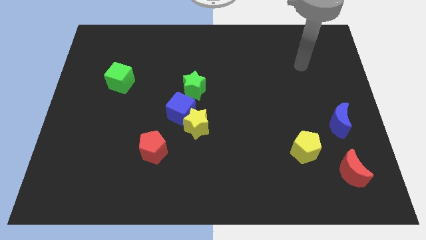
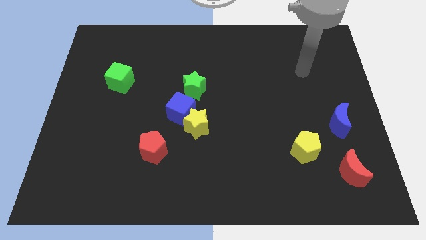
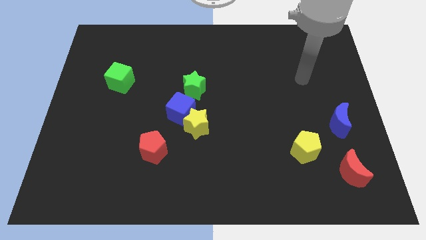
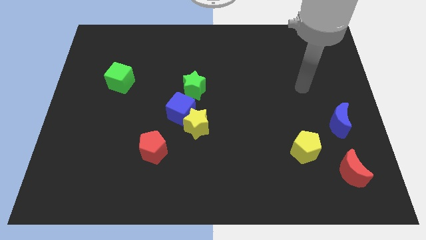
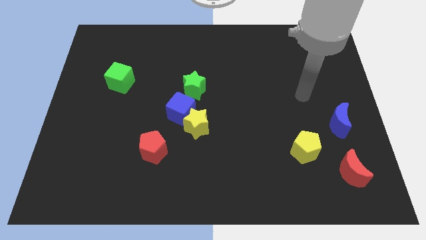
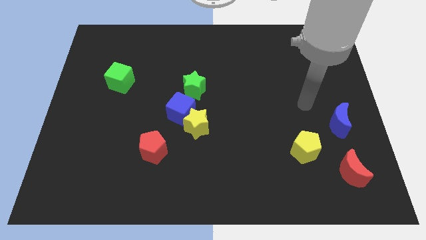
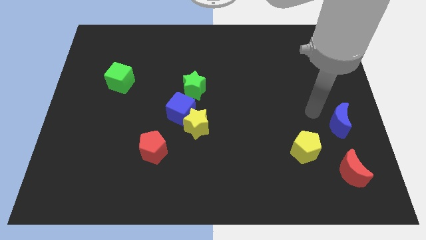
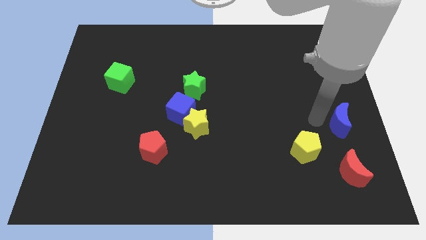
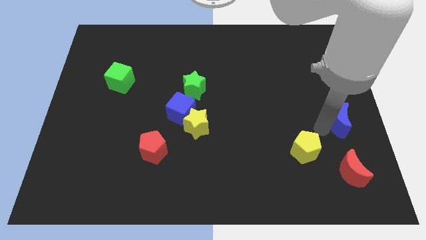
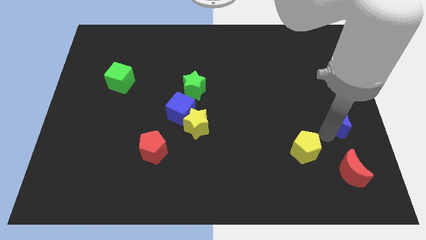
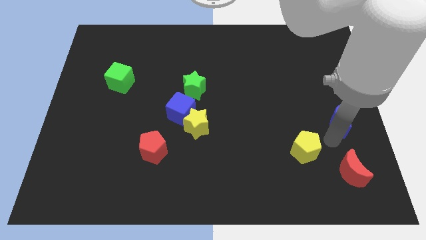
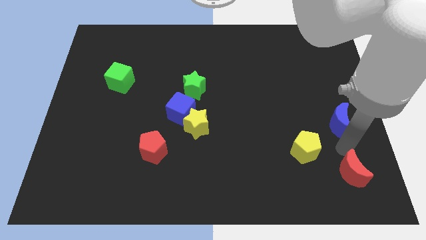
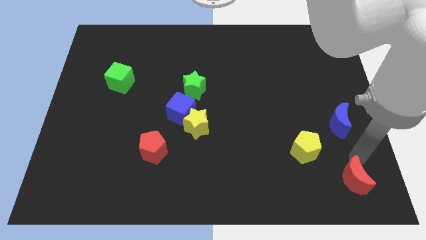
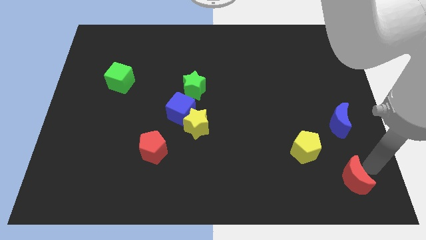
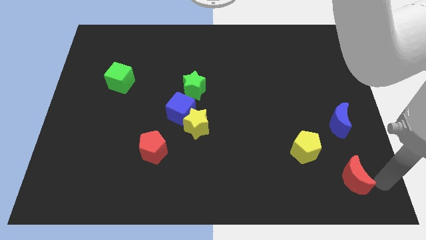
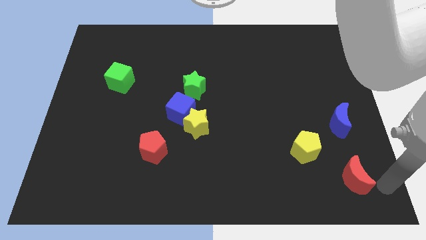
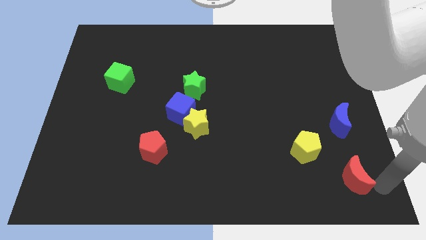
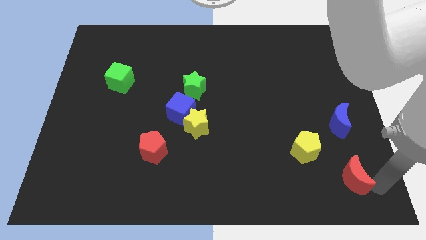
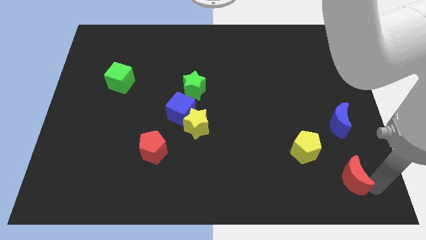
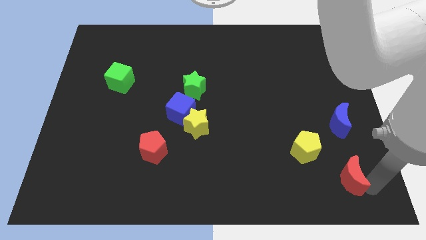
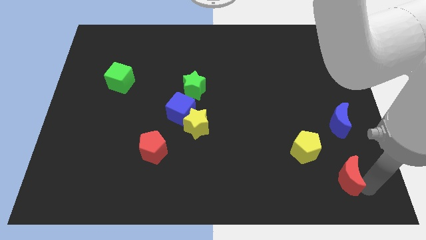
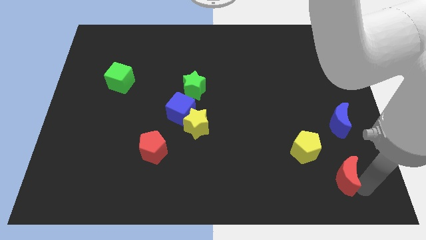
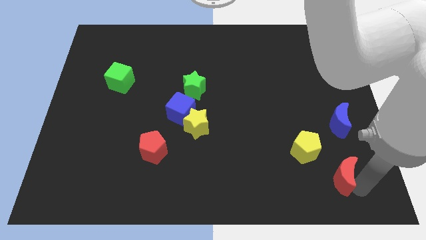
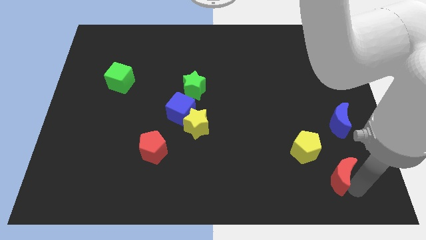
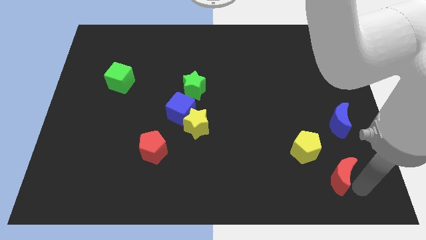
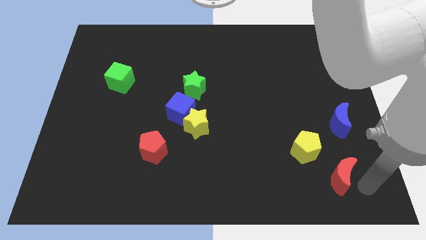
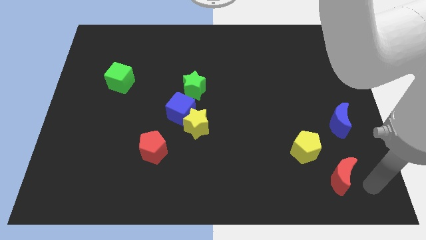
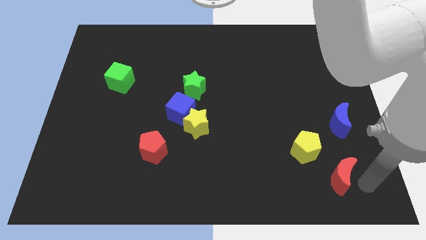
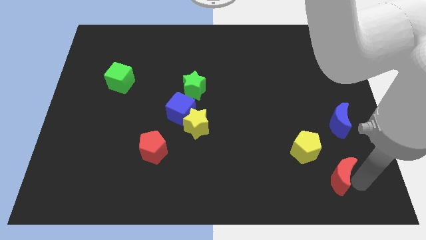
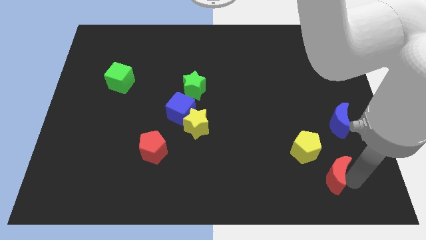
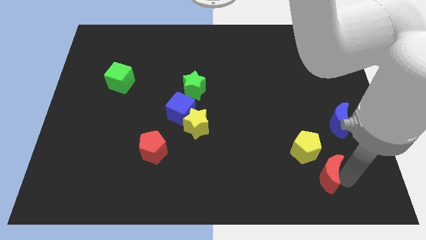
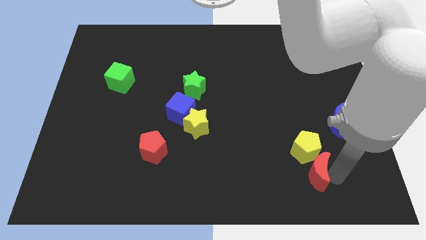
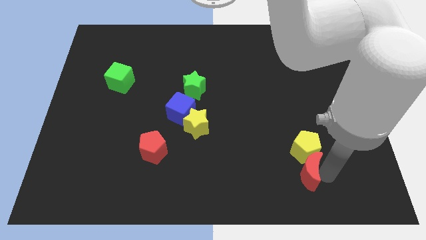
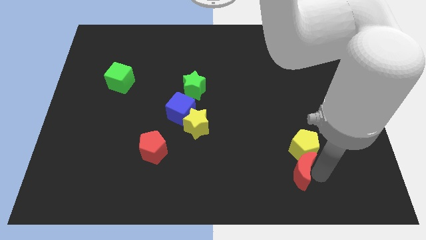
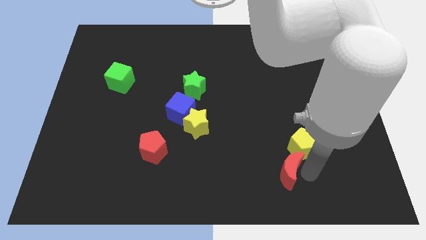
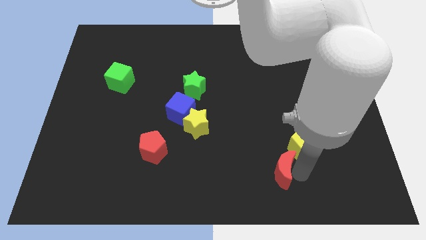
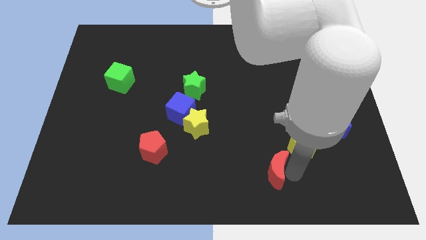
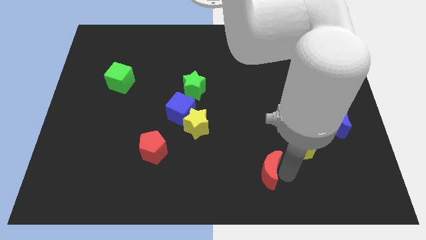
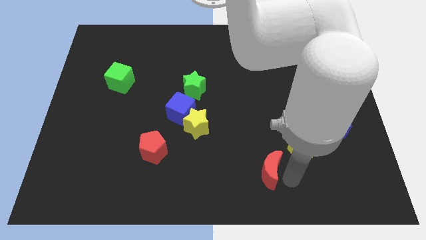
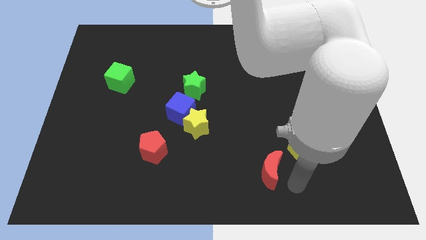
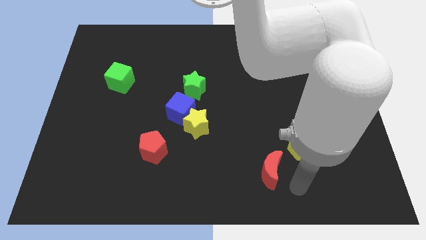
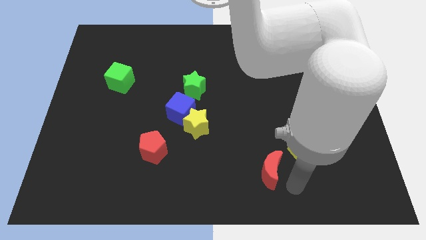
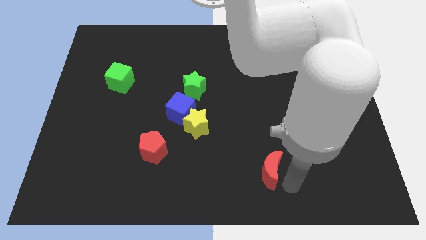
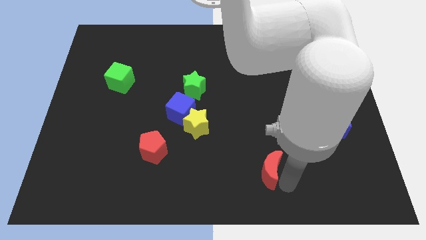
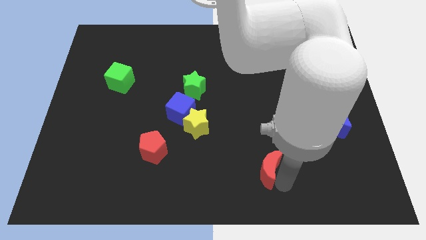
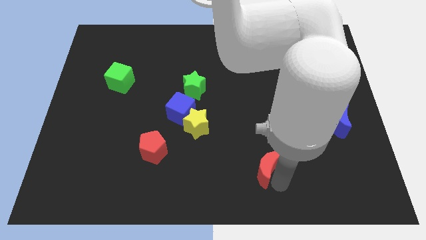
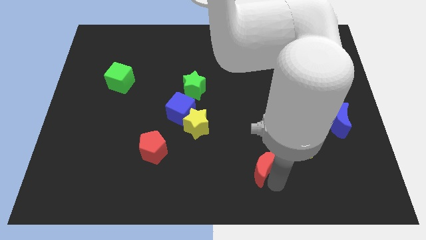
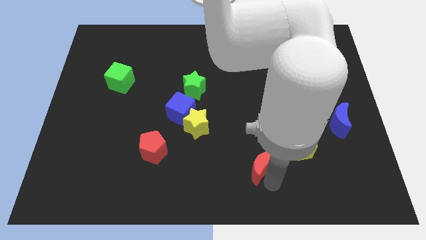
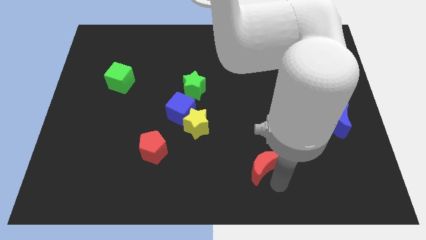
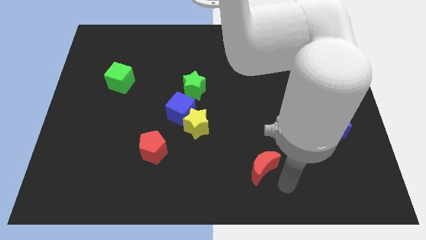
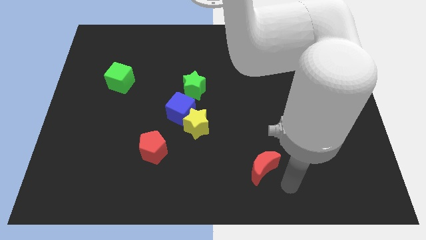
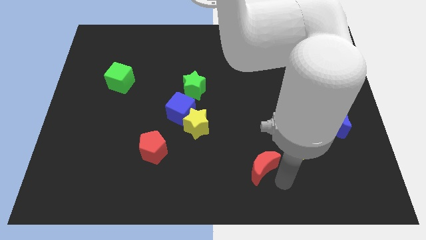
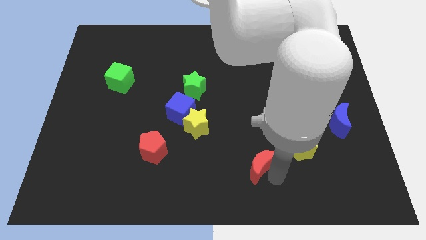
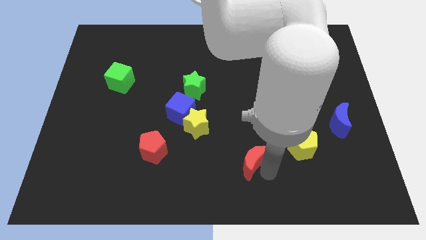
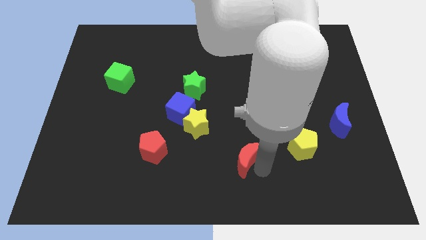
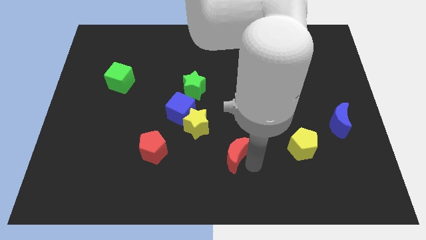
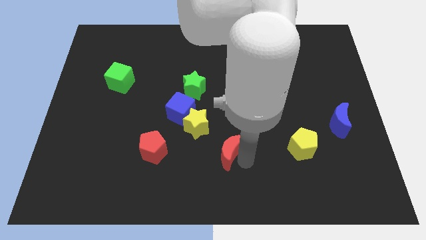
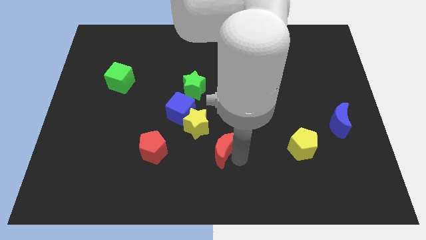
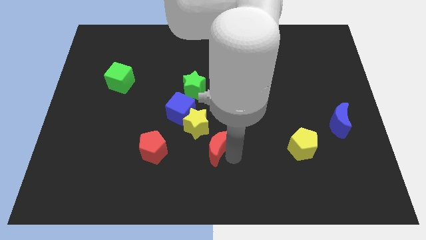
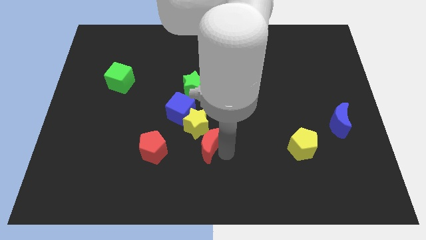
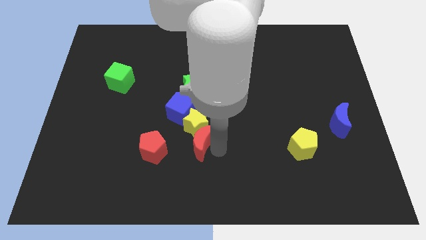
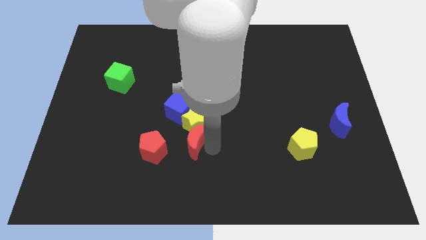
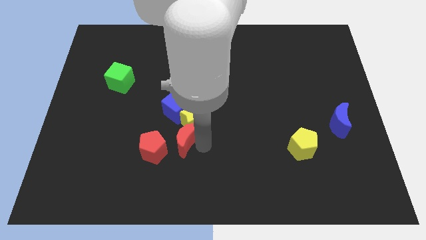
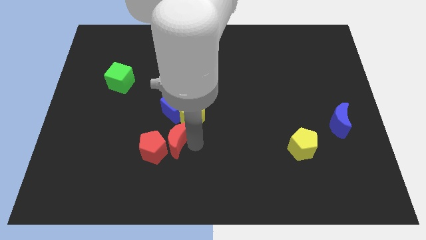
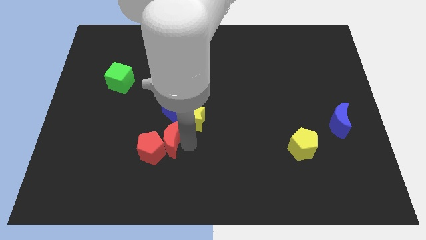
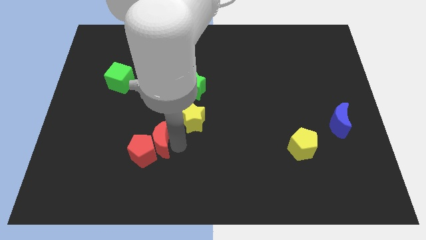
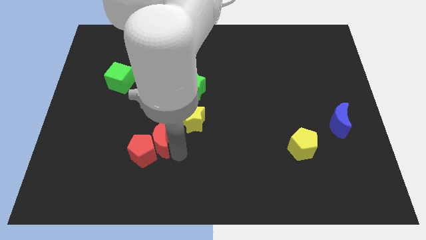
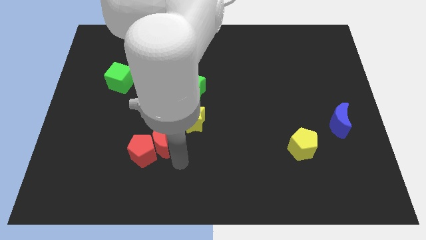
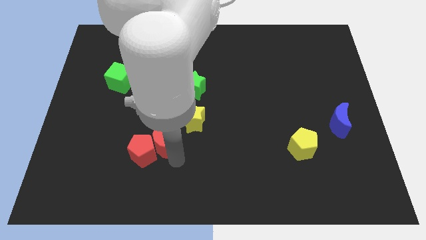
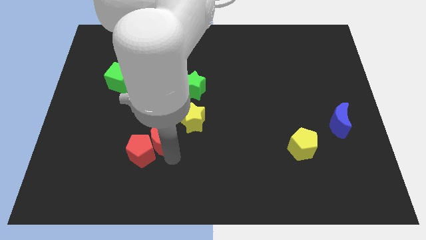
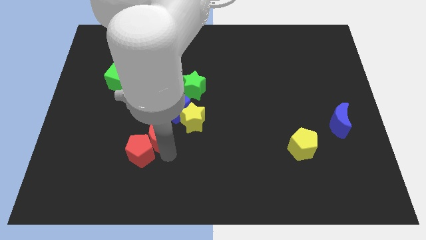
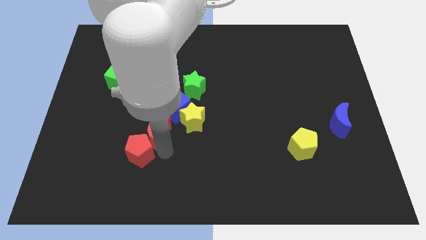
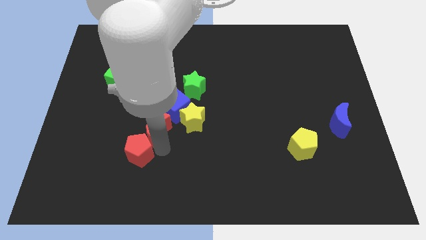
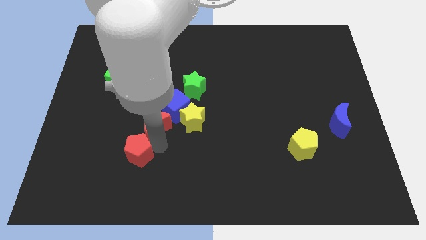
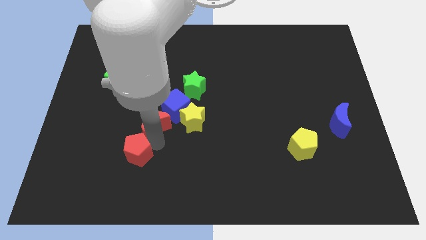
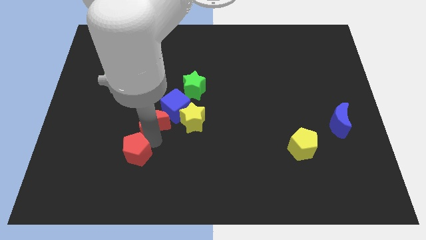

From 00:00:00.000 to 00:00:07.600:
push the red moon to the left side of the blue cube

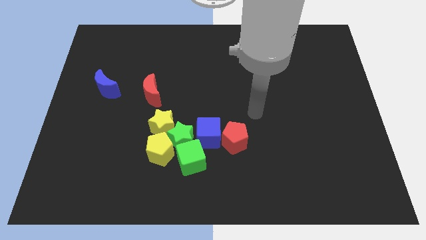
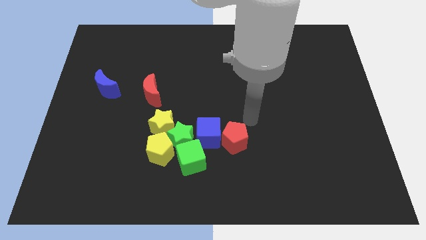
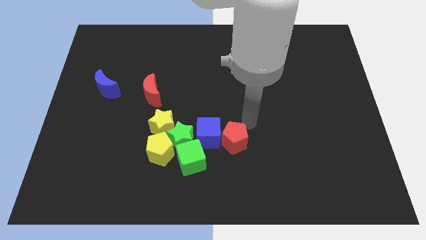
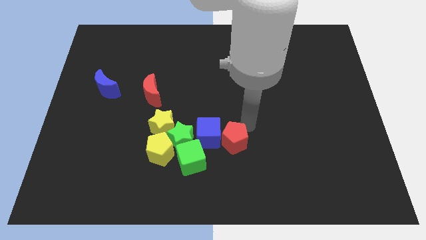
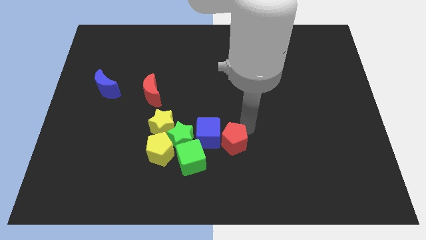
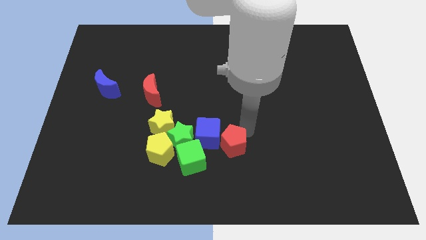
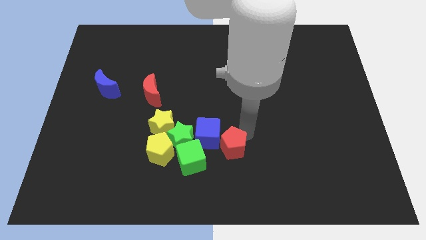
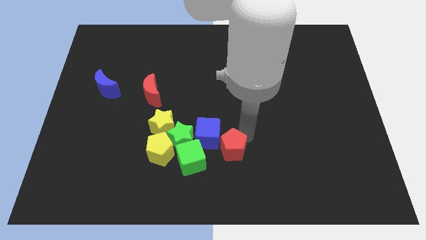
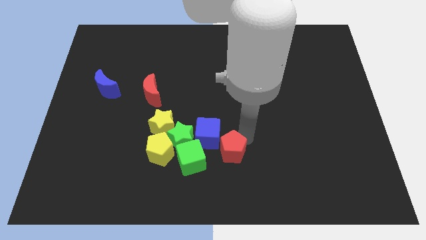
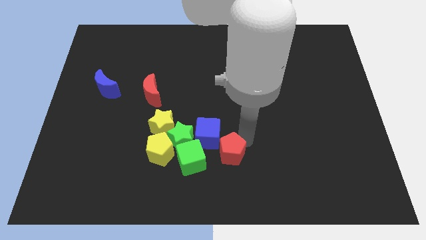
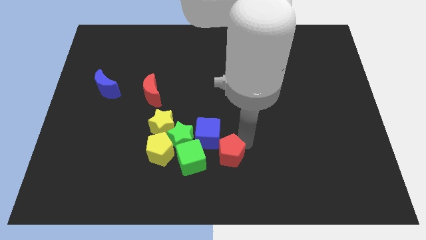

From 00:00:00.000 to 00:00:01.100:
push the red pentagon to the bottom side of the blue cube
